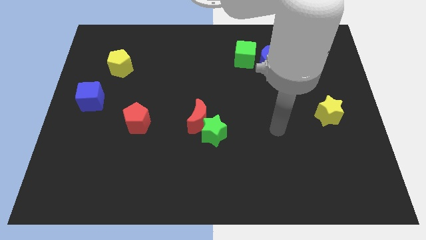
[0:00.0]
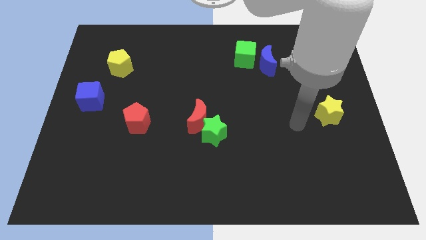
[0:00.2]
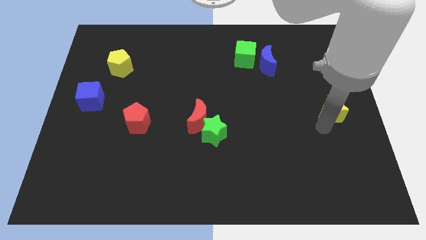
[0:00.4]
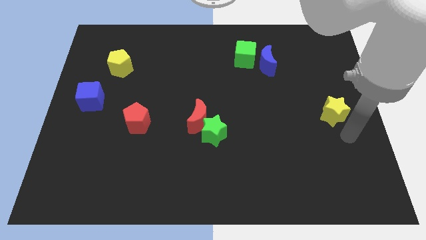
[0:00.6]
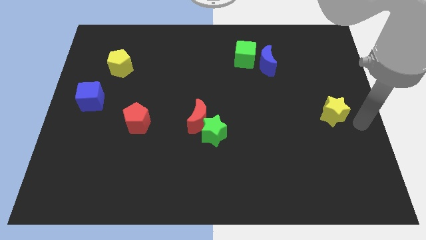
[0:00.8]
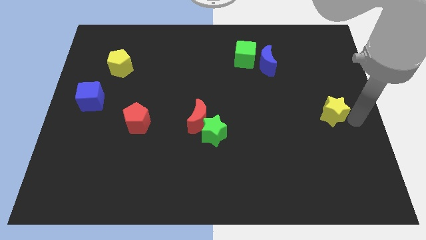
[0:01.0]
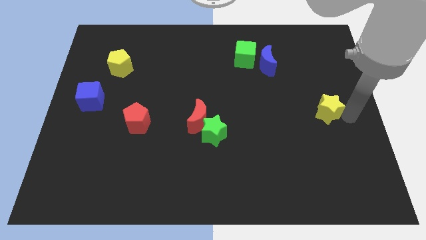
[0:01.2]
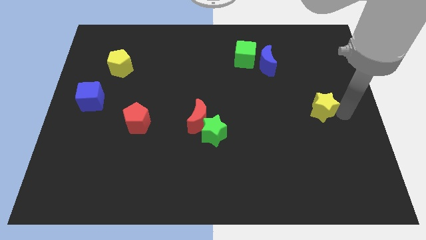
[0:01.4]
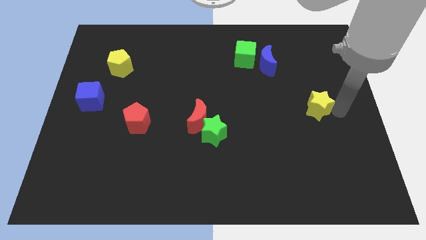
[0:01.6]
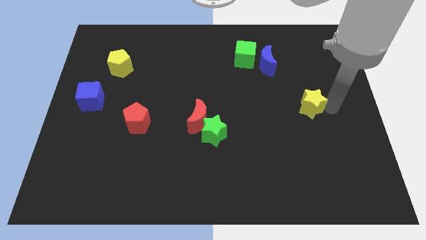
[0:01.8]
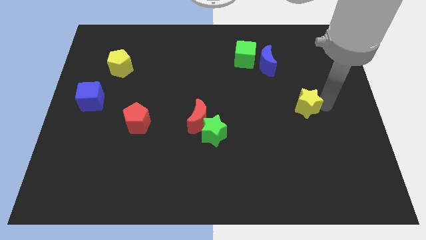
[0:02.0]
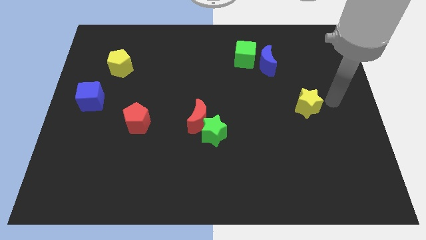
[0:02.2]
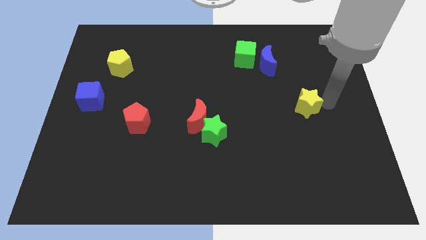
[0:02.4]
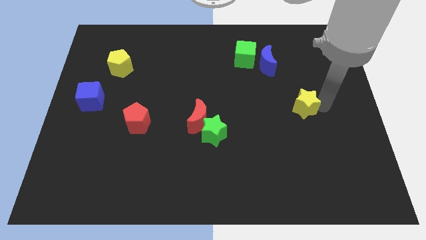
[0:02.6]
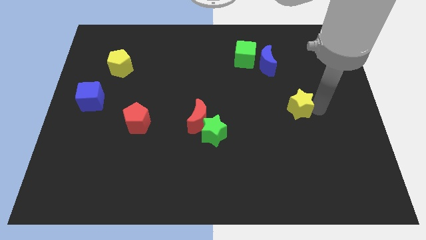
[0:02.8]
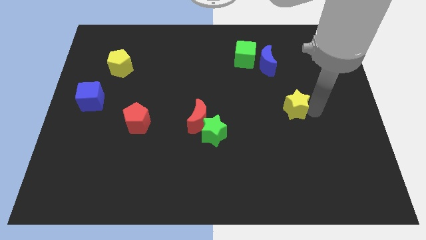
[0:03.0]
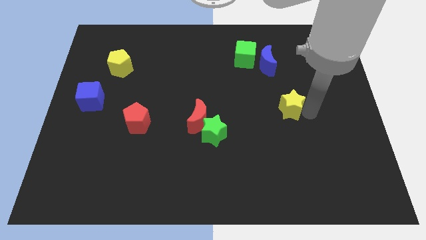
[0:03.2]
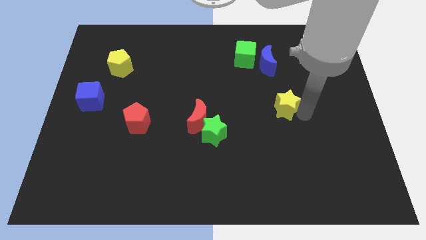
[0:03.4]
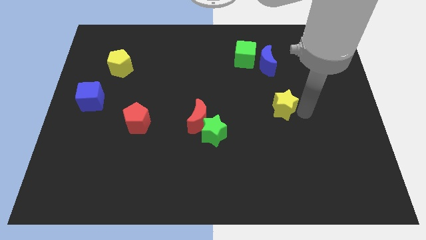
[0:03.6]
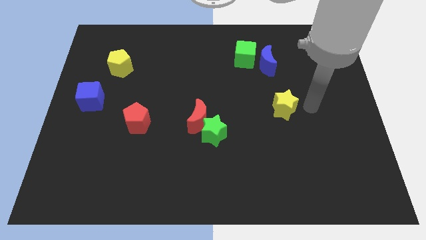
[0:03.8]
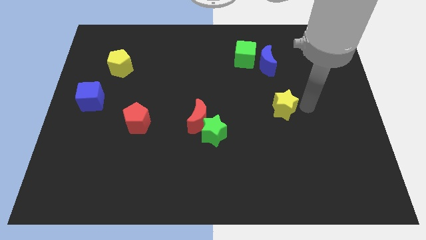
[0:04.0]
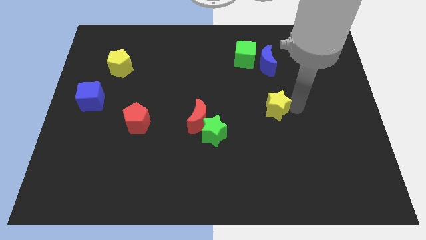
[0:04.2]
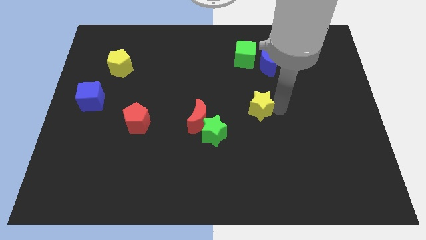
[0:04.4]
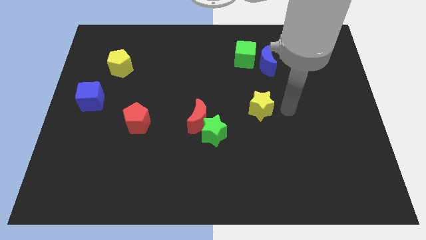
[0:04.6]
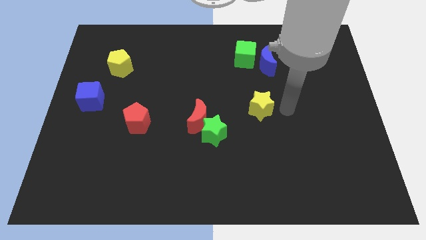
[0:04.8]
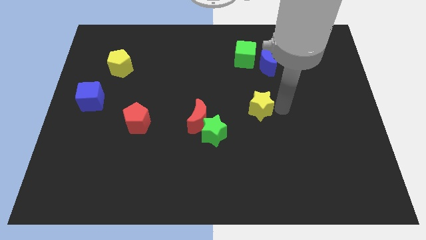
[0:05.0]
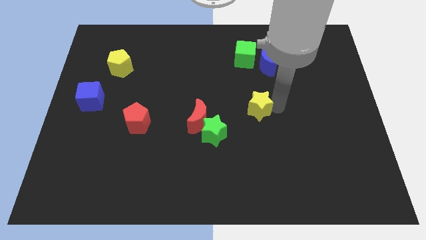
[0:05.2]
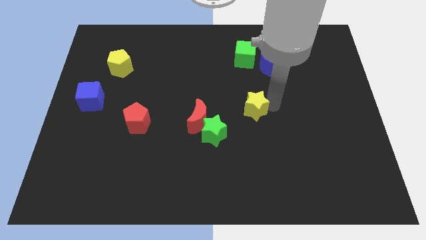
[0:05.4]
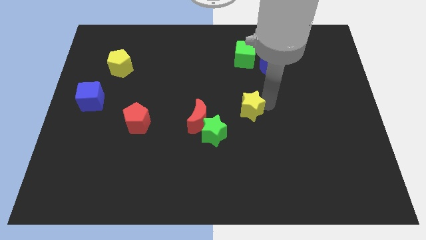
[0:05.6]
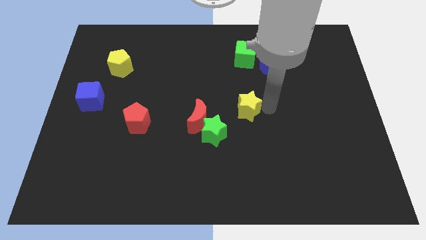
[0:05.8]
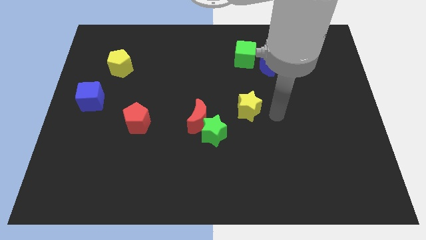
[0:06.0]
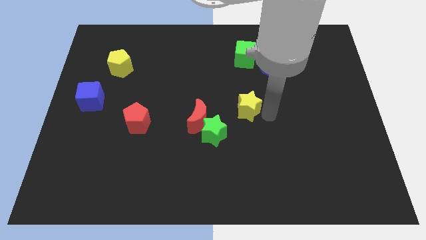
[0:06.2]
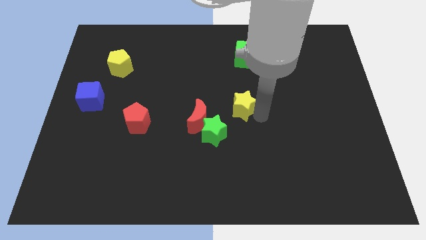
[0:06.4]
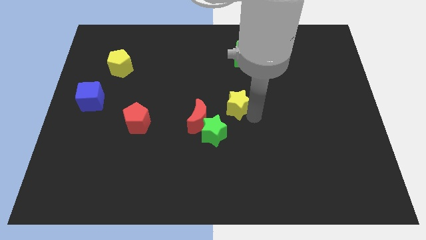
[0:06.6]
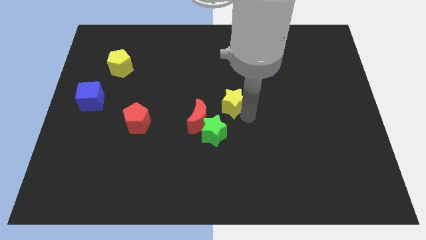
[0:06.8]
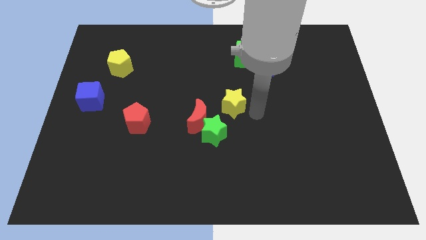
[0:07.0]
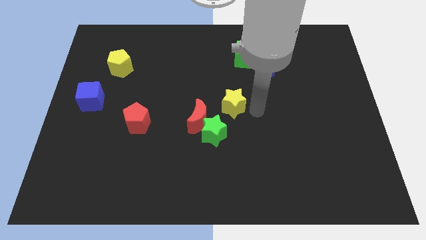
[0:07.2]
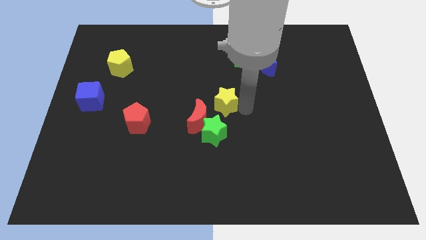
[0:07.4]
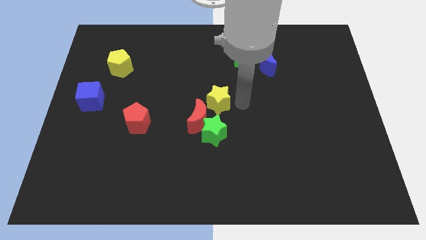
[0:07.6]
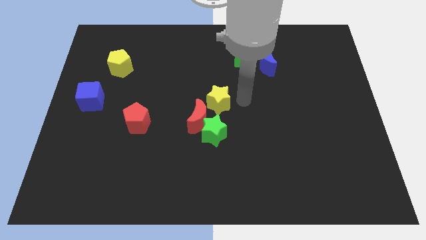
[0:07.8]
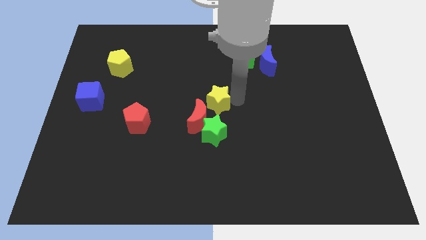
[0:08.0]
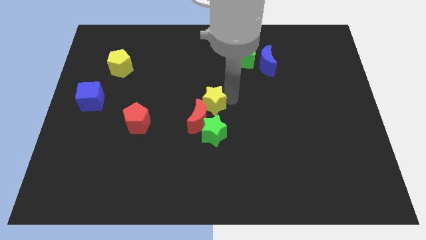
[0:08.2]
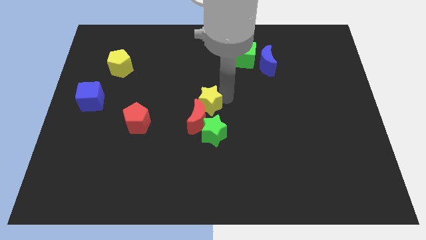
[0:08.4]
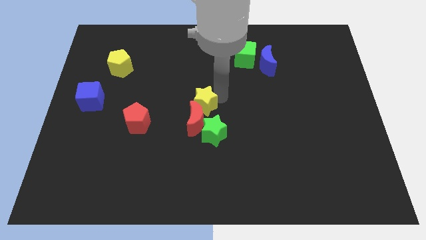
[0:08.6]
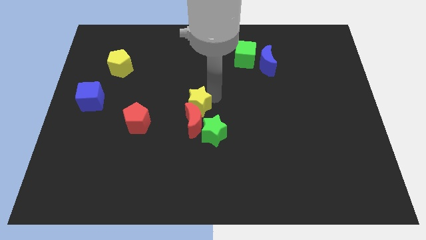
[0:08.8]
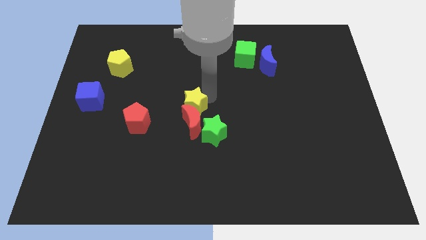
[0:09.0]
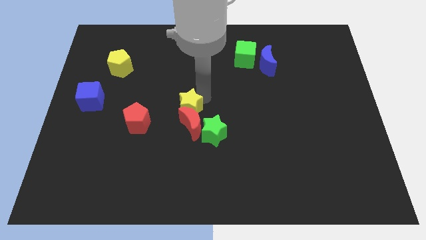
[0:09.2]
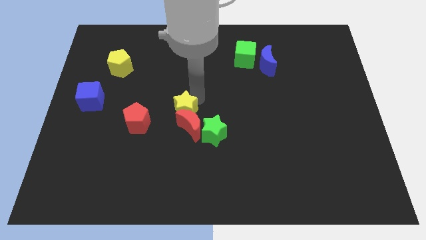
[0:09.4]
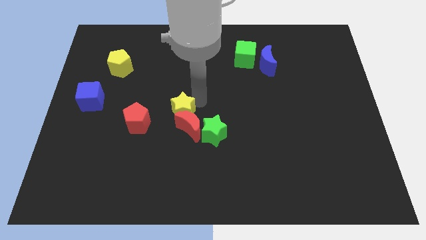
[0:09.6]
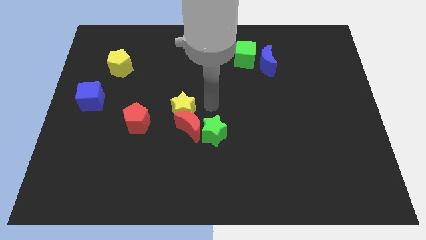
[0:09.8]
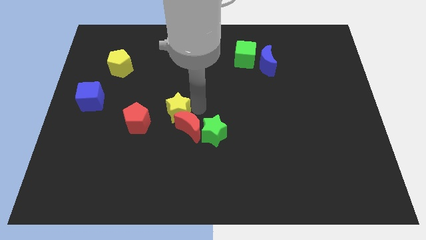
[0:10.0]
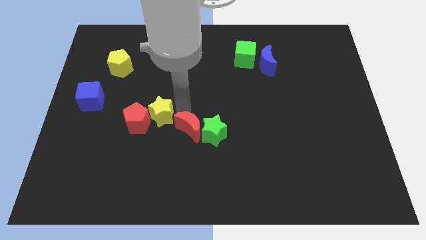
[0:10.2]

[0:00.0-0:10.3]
put the yellow star close to the red pentagon

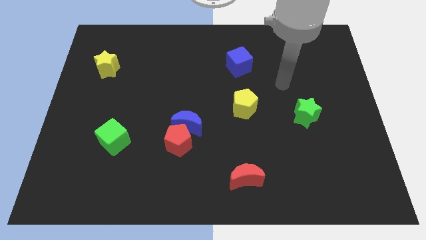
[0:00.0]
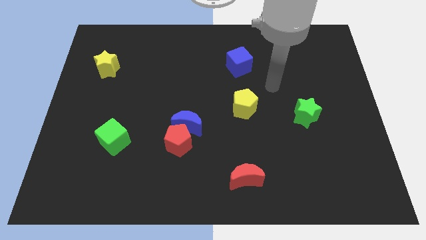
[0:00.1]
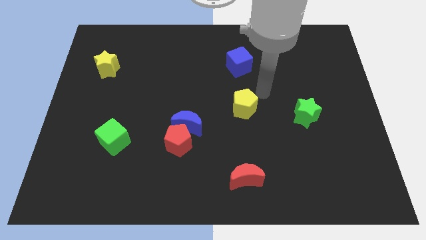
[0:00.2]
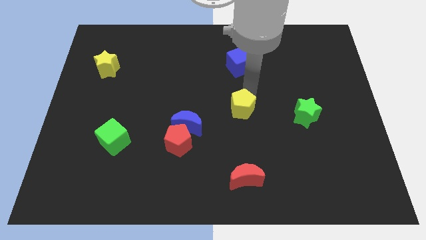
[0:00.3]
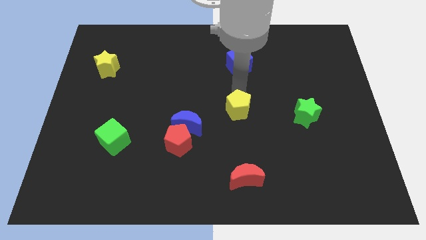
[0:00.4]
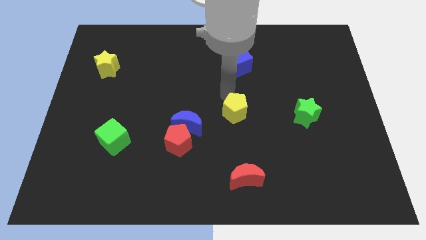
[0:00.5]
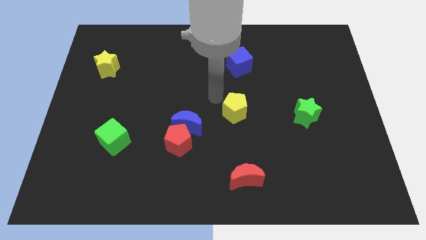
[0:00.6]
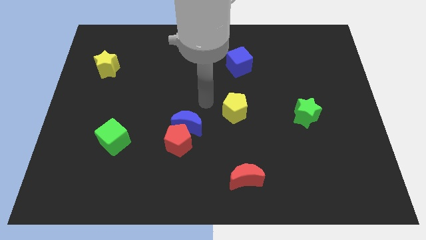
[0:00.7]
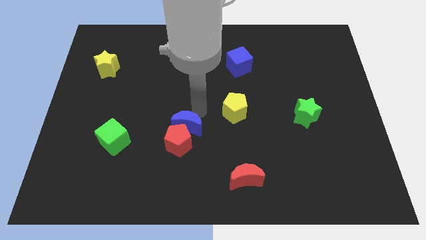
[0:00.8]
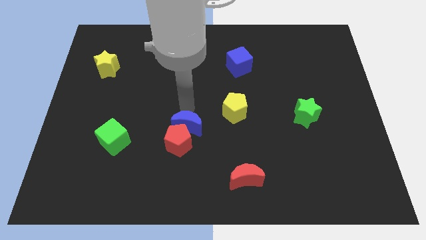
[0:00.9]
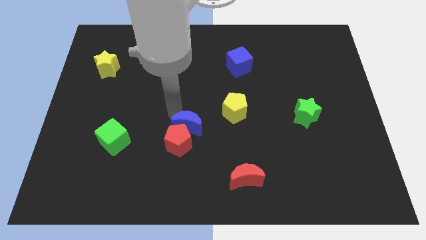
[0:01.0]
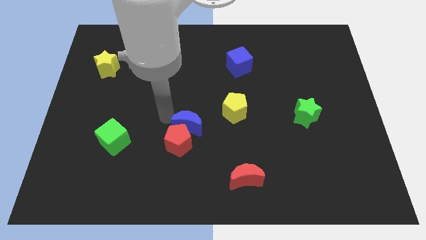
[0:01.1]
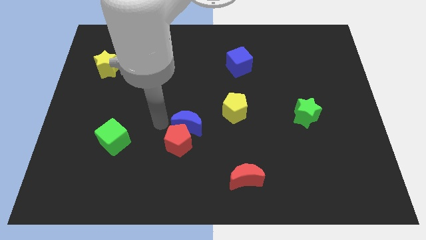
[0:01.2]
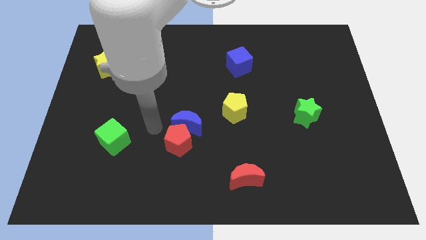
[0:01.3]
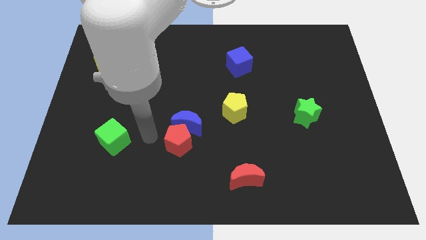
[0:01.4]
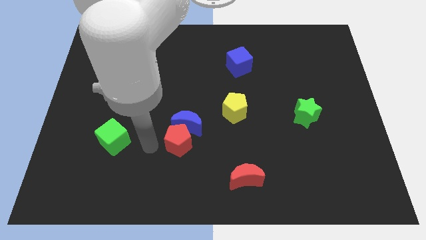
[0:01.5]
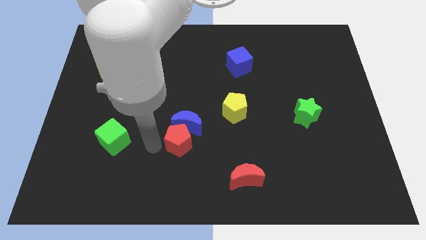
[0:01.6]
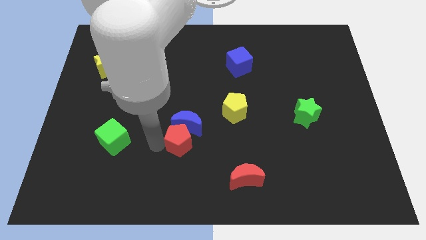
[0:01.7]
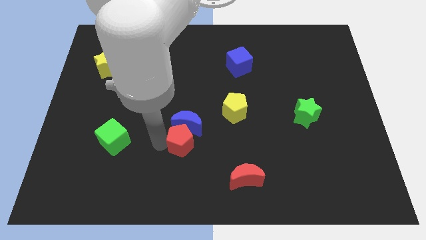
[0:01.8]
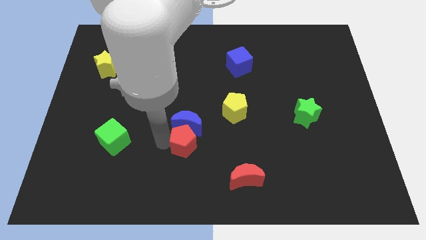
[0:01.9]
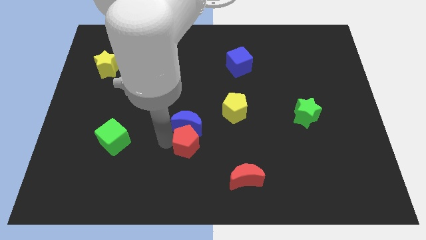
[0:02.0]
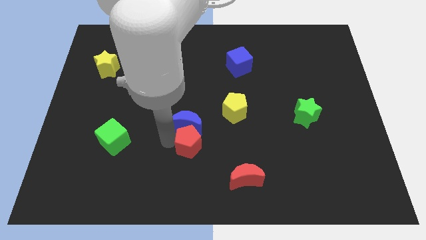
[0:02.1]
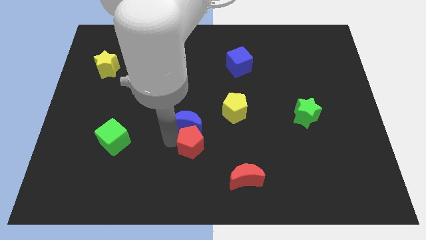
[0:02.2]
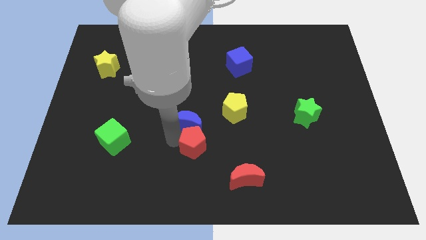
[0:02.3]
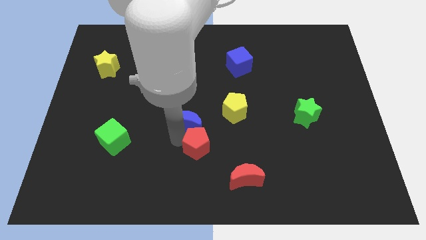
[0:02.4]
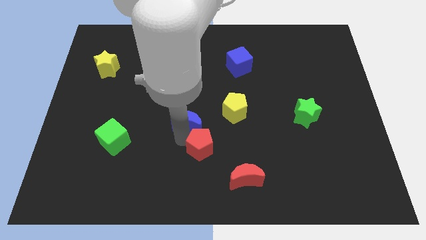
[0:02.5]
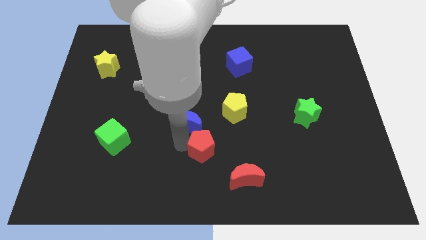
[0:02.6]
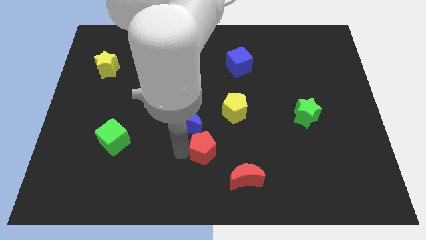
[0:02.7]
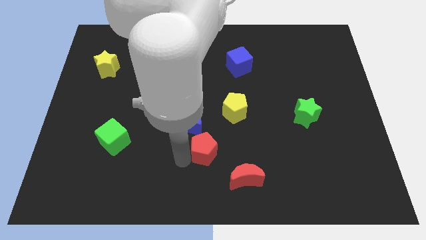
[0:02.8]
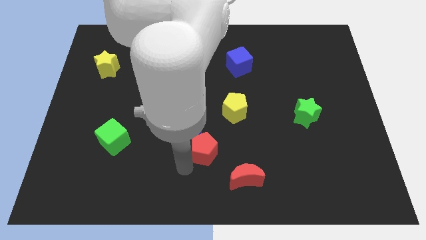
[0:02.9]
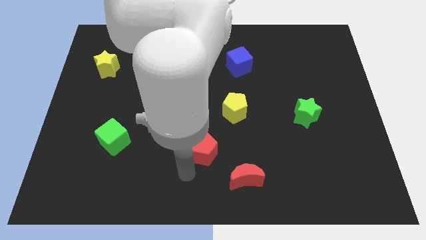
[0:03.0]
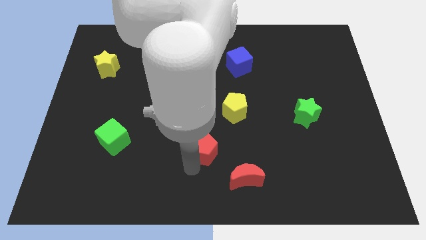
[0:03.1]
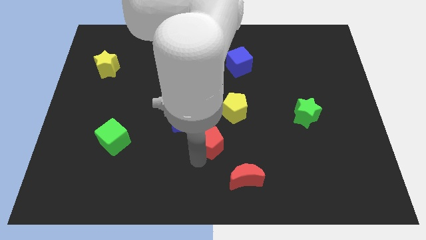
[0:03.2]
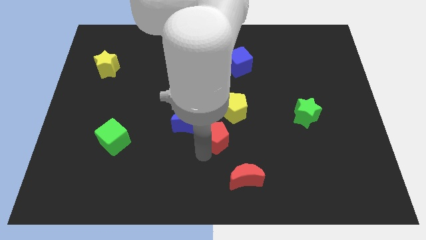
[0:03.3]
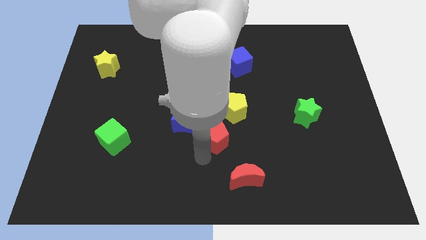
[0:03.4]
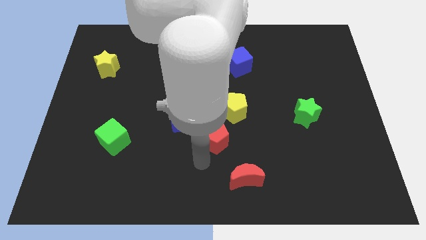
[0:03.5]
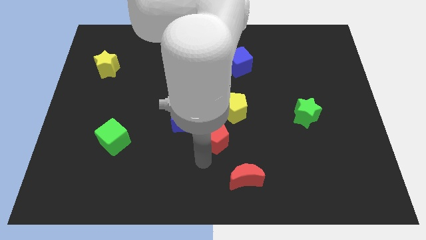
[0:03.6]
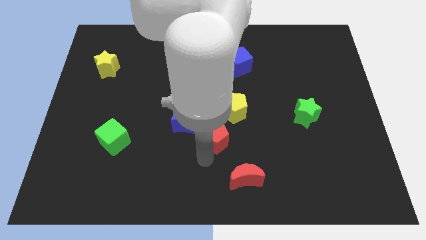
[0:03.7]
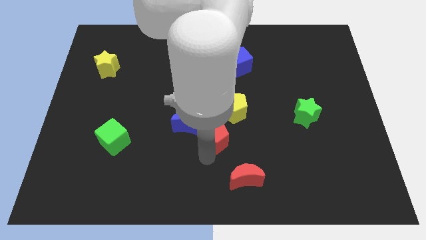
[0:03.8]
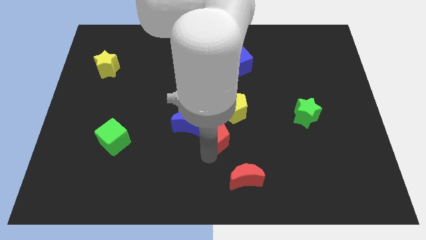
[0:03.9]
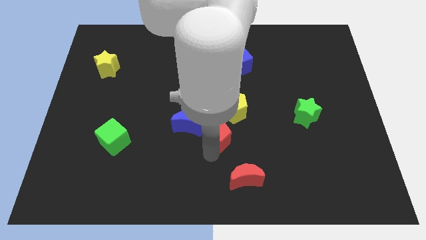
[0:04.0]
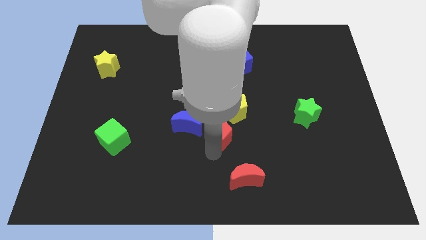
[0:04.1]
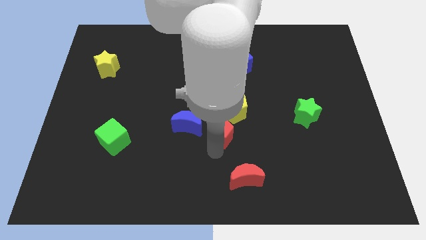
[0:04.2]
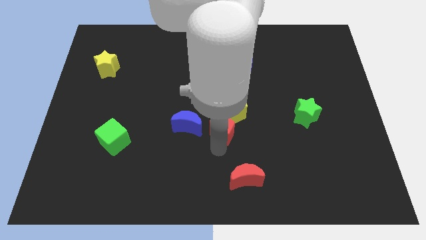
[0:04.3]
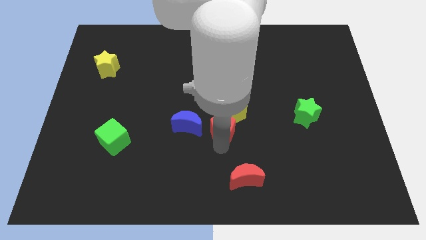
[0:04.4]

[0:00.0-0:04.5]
move the red pentagon close to the yellow pentagon
